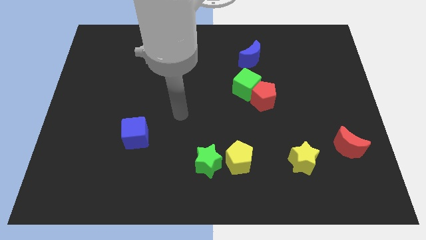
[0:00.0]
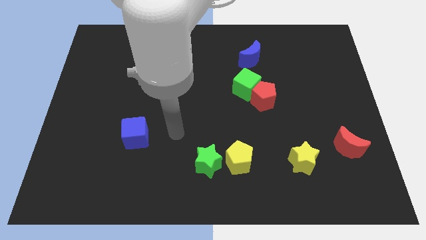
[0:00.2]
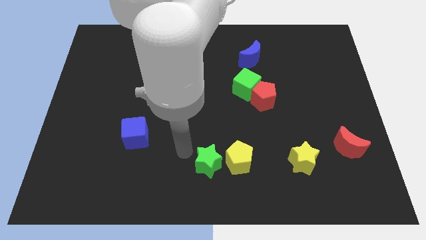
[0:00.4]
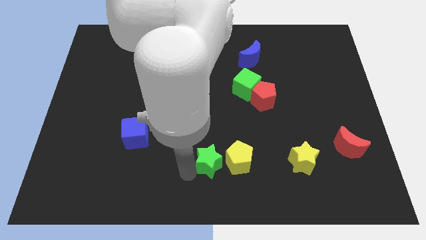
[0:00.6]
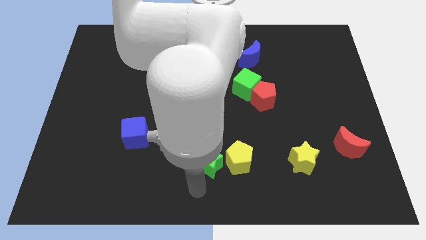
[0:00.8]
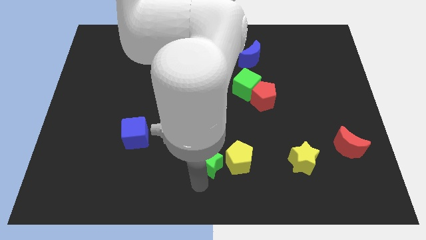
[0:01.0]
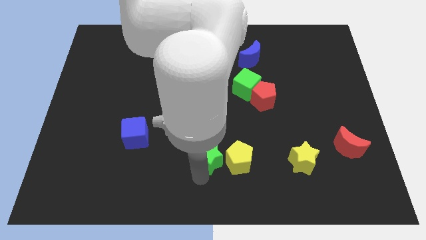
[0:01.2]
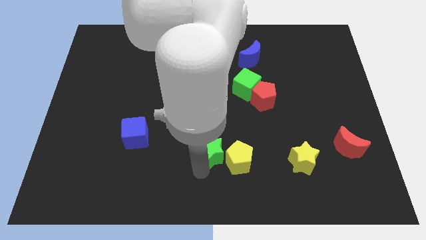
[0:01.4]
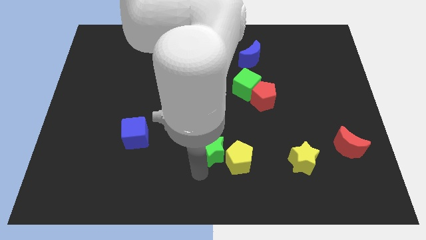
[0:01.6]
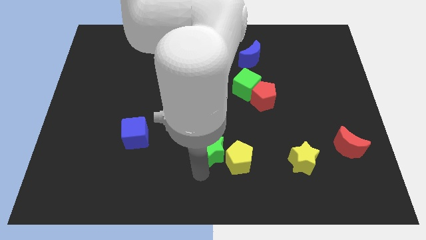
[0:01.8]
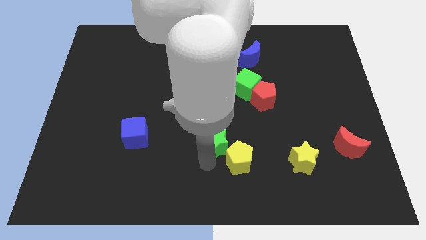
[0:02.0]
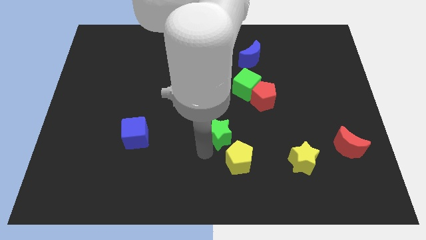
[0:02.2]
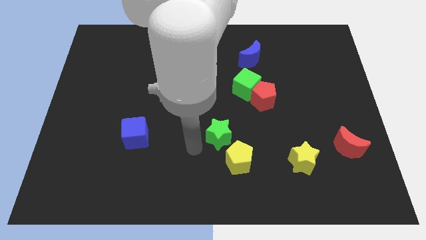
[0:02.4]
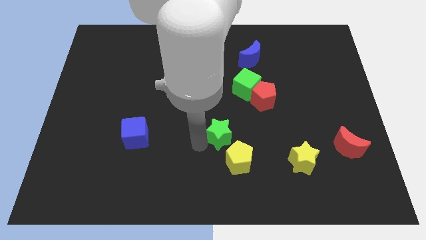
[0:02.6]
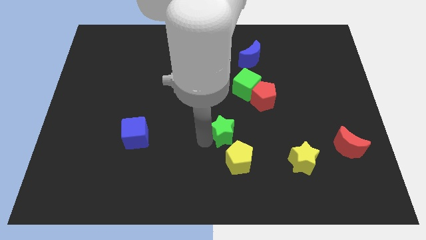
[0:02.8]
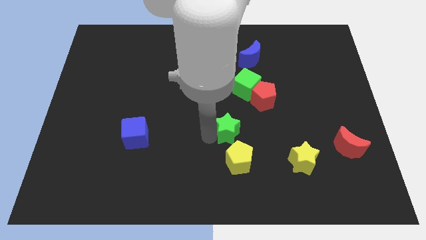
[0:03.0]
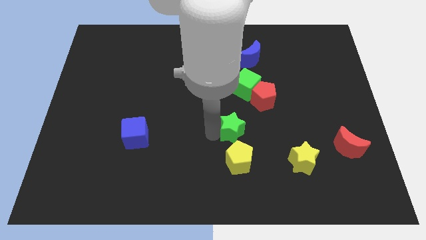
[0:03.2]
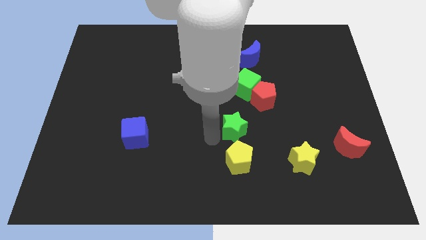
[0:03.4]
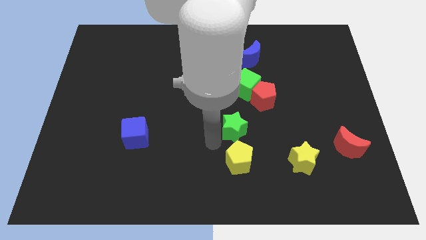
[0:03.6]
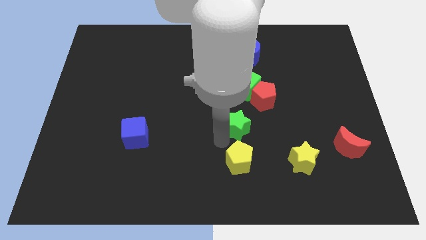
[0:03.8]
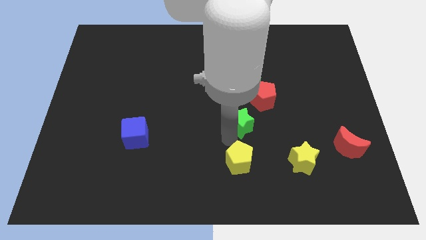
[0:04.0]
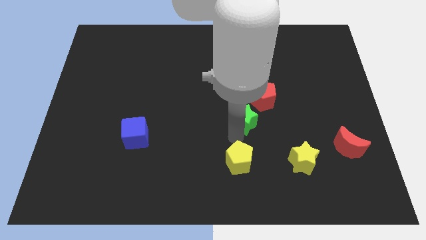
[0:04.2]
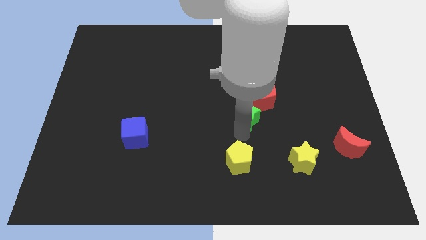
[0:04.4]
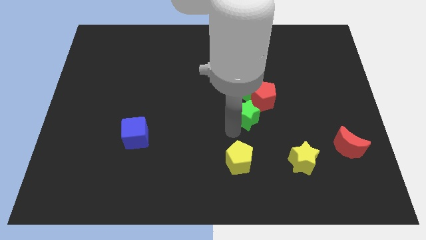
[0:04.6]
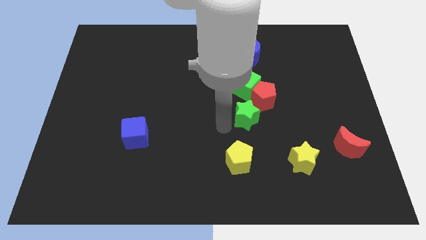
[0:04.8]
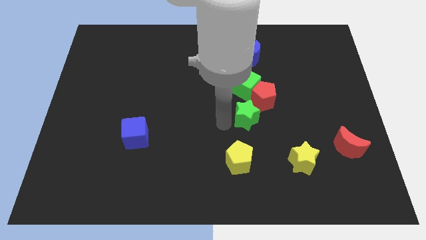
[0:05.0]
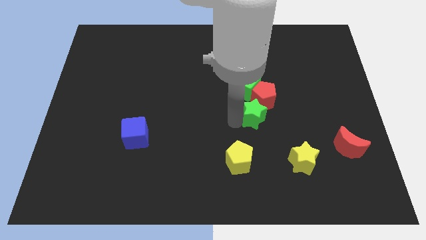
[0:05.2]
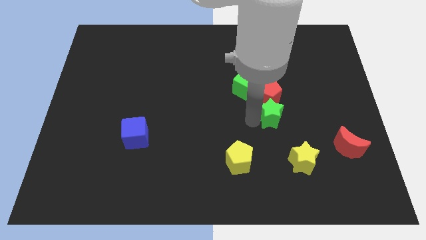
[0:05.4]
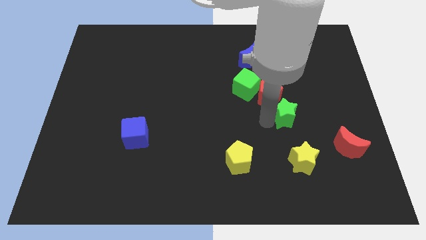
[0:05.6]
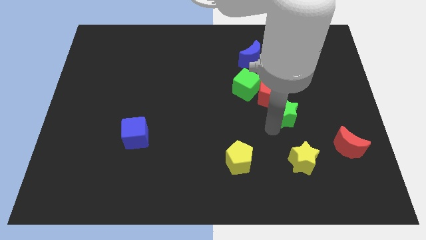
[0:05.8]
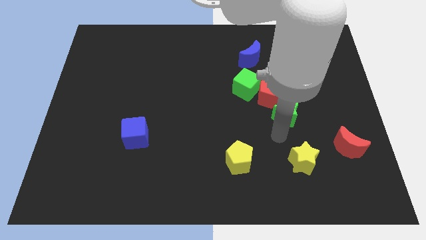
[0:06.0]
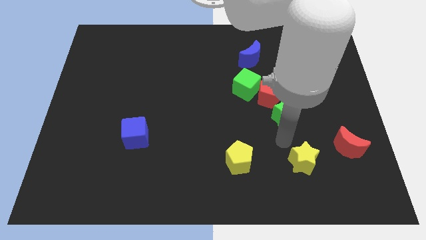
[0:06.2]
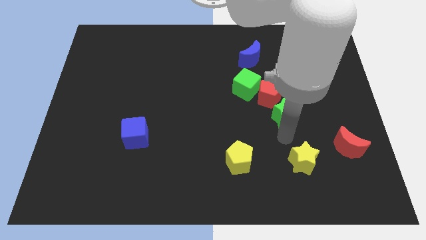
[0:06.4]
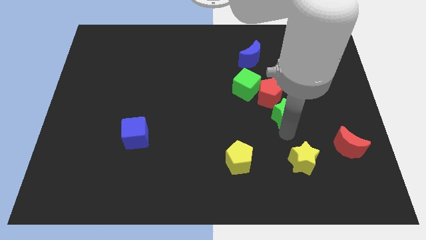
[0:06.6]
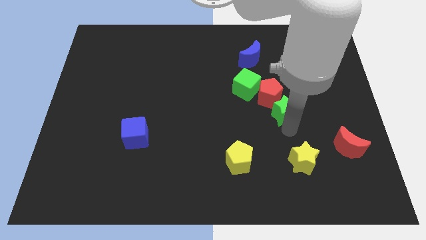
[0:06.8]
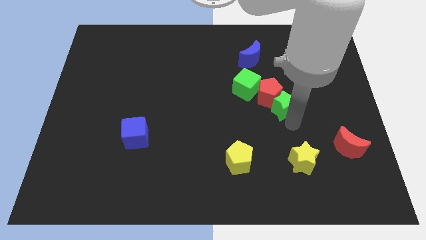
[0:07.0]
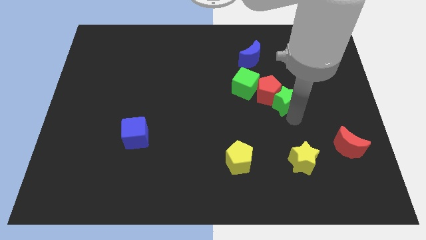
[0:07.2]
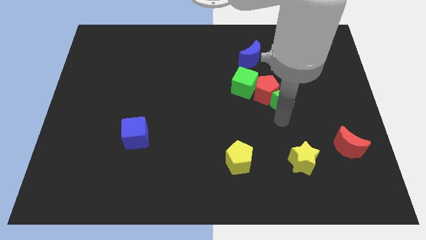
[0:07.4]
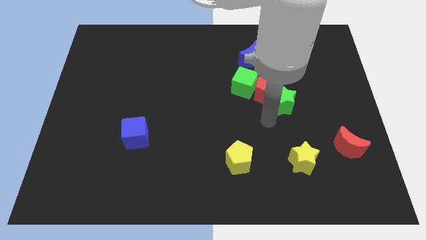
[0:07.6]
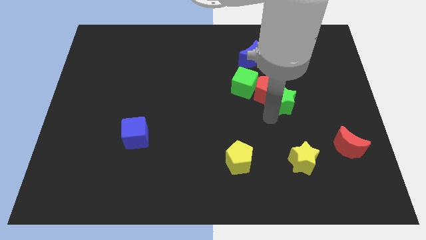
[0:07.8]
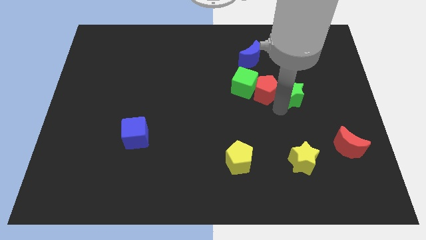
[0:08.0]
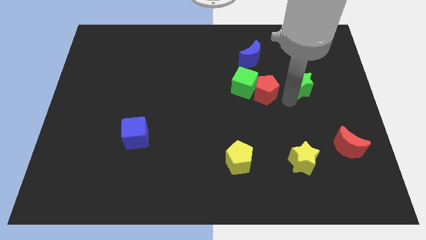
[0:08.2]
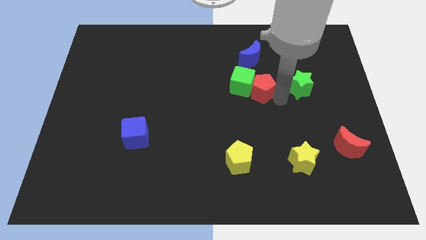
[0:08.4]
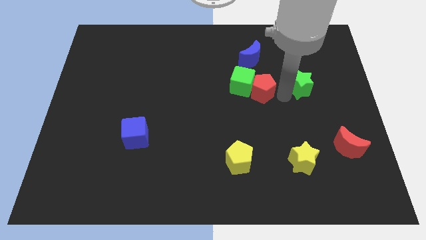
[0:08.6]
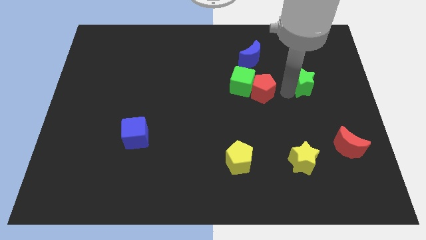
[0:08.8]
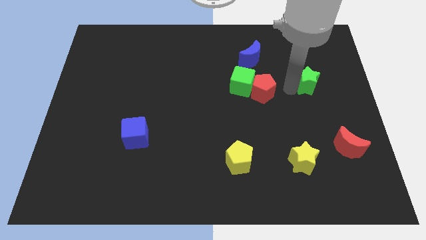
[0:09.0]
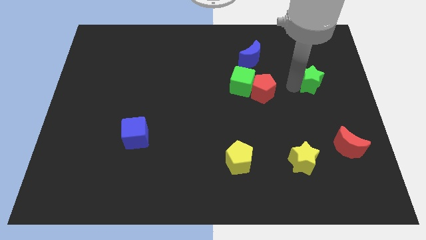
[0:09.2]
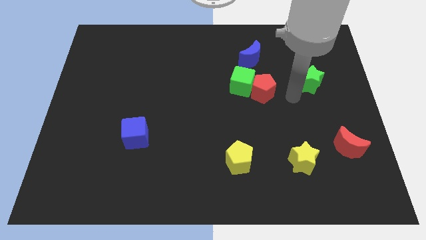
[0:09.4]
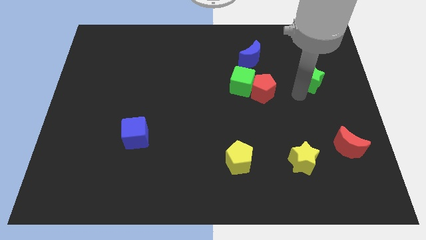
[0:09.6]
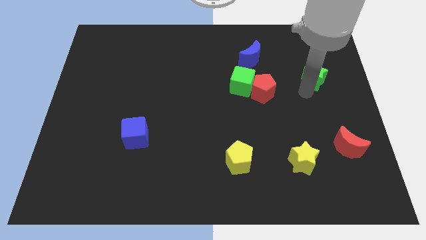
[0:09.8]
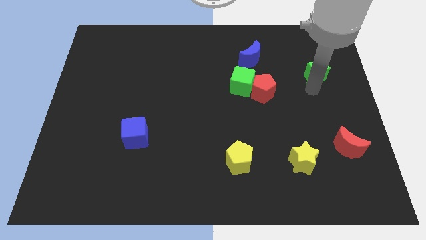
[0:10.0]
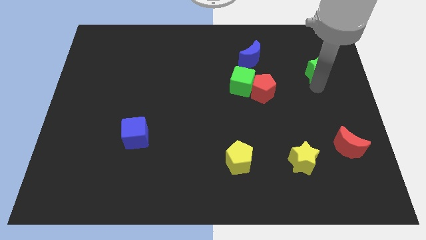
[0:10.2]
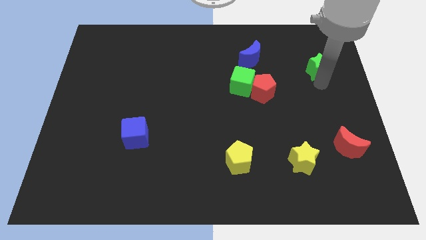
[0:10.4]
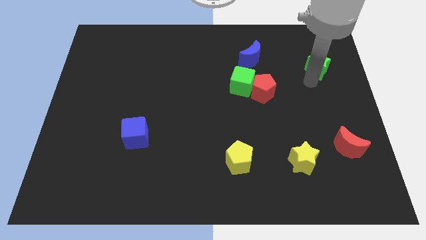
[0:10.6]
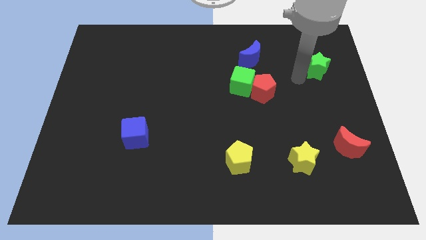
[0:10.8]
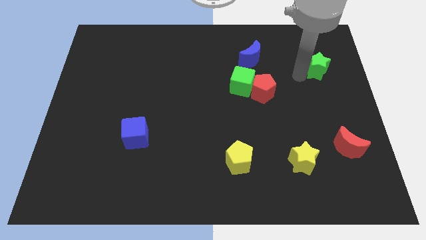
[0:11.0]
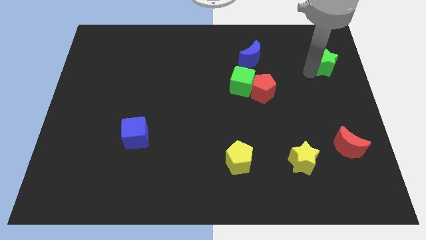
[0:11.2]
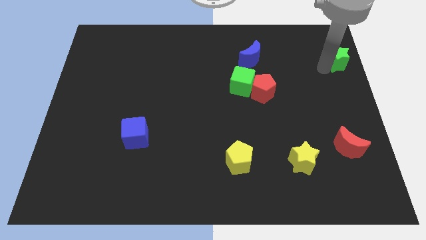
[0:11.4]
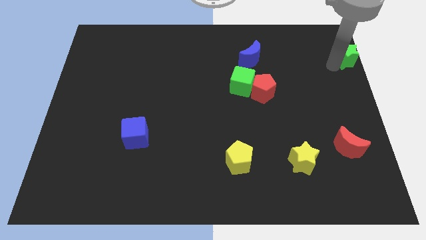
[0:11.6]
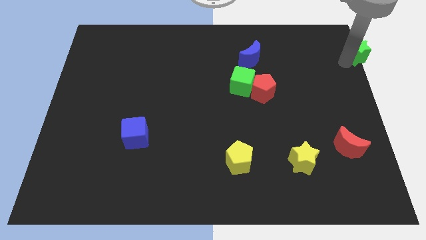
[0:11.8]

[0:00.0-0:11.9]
push the green star to the top right corner

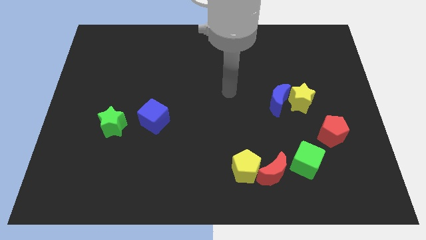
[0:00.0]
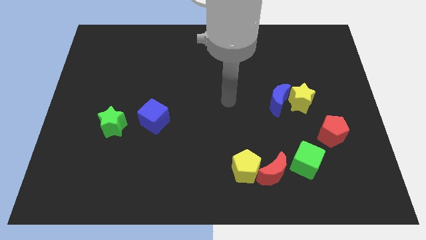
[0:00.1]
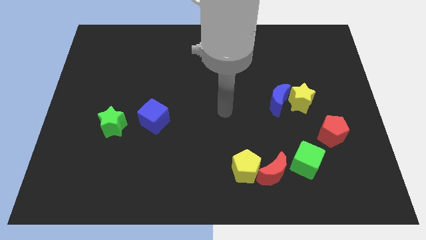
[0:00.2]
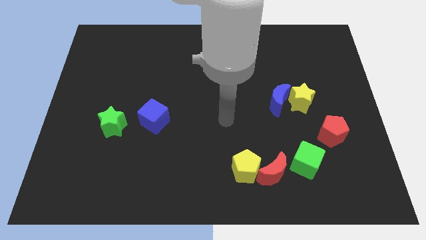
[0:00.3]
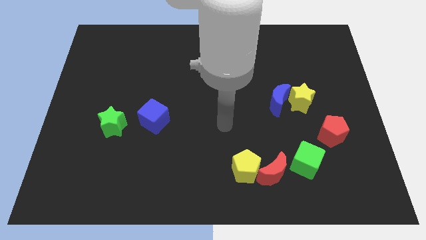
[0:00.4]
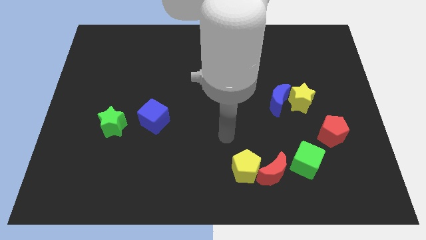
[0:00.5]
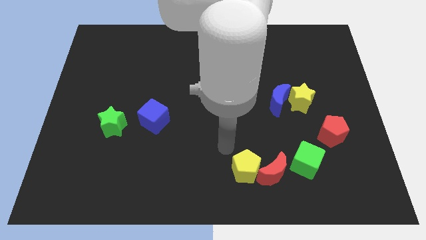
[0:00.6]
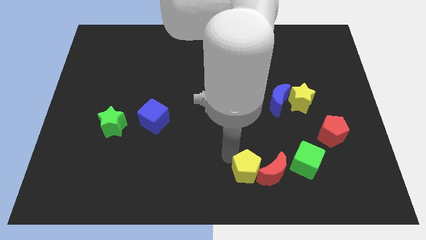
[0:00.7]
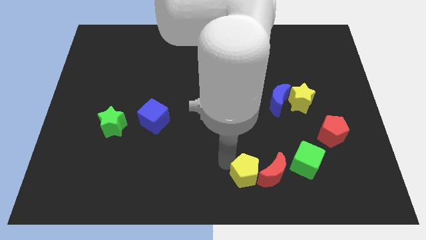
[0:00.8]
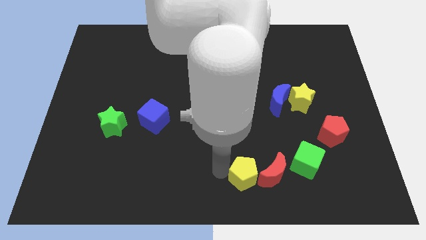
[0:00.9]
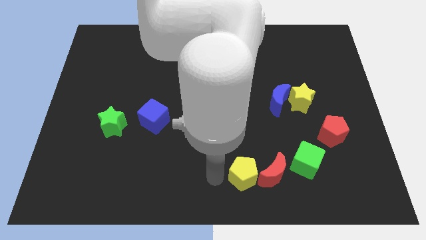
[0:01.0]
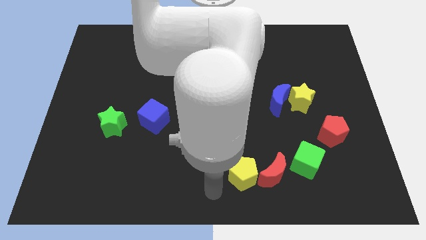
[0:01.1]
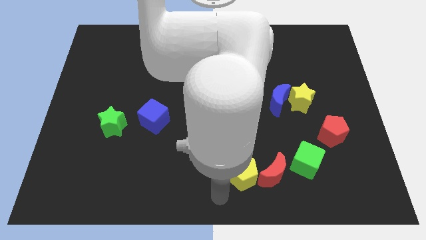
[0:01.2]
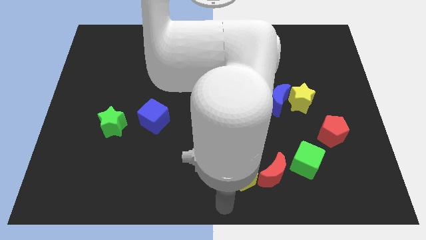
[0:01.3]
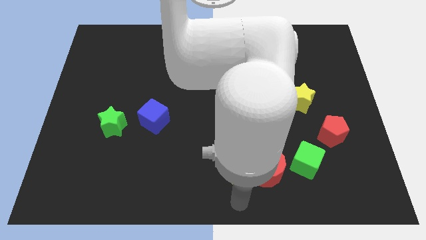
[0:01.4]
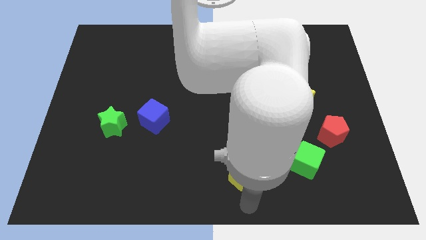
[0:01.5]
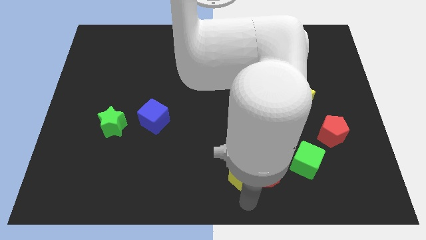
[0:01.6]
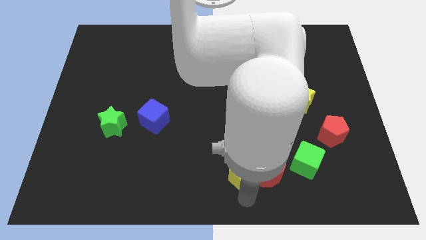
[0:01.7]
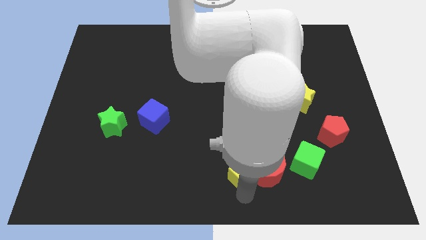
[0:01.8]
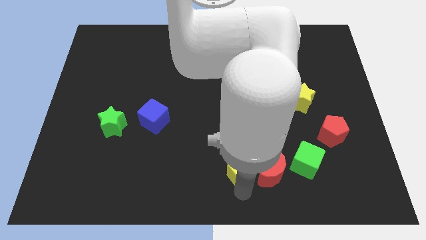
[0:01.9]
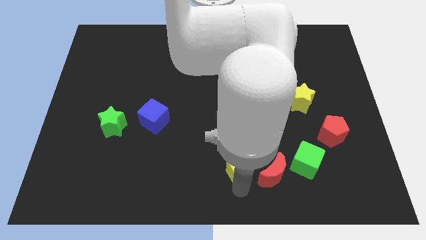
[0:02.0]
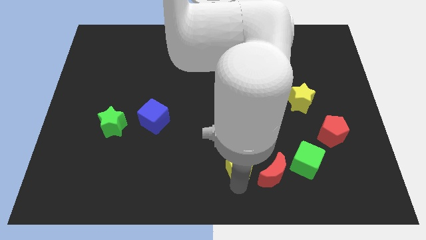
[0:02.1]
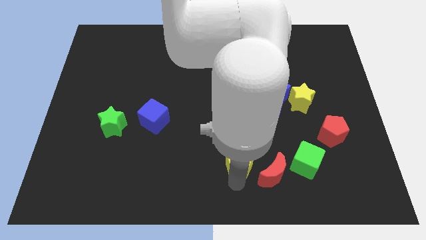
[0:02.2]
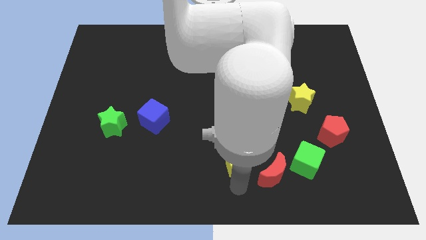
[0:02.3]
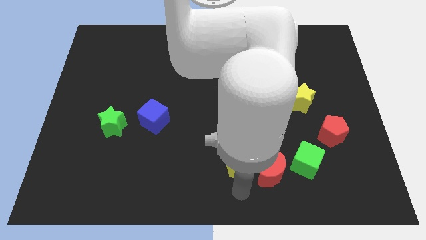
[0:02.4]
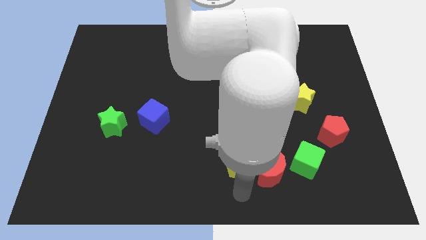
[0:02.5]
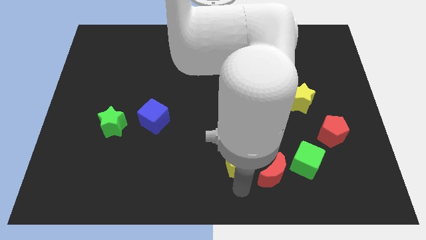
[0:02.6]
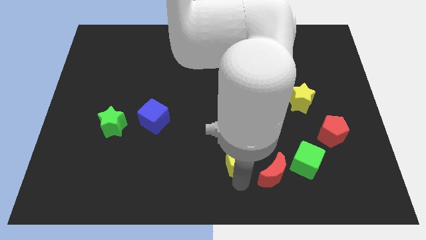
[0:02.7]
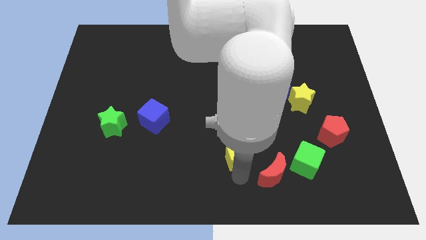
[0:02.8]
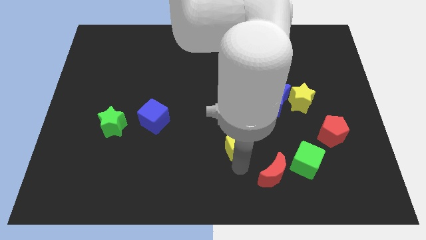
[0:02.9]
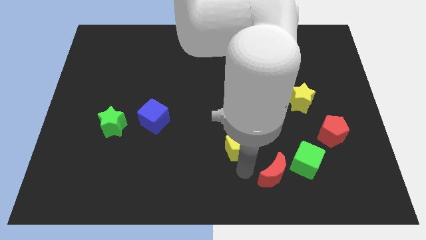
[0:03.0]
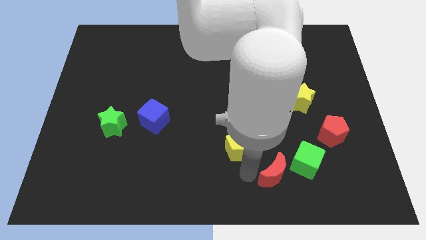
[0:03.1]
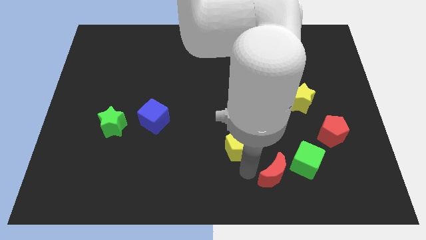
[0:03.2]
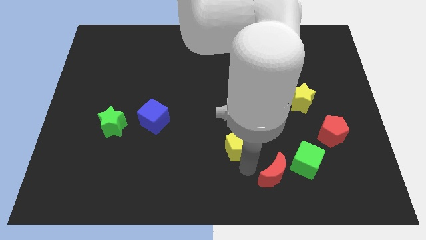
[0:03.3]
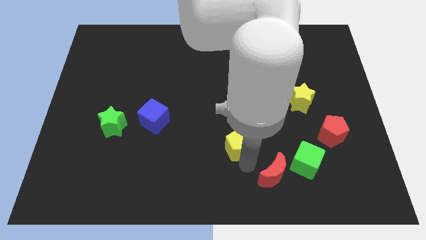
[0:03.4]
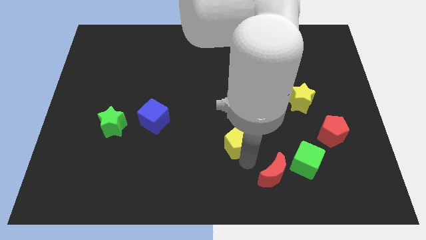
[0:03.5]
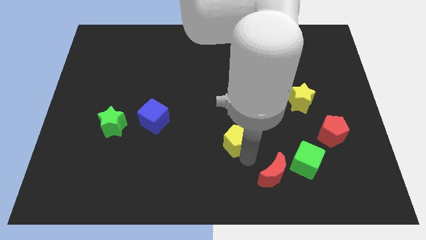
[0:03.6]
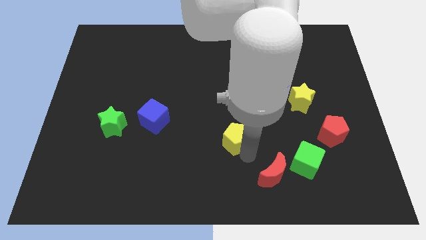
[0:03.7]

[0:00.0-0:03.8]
put the yellow pentagon to the middle of the board
